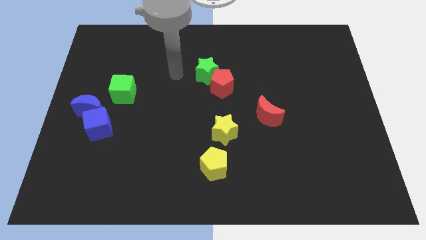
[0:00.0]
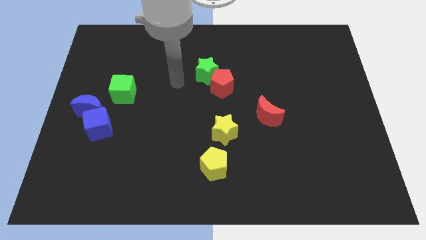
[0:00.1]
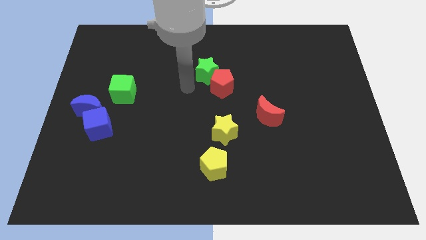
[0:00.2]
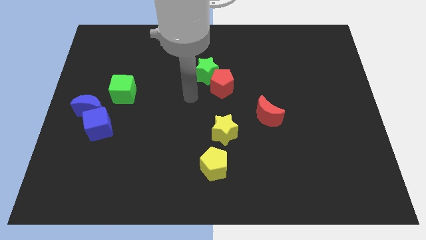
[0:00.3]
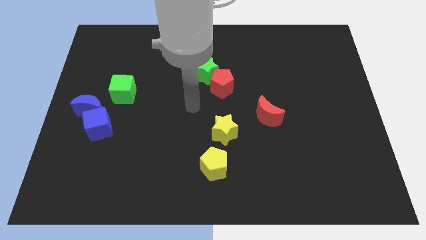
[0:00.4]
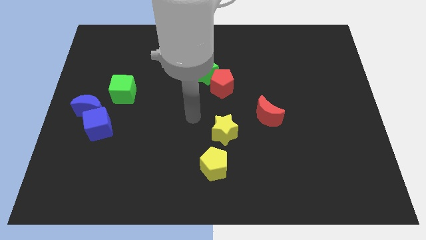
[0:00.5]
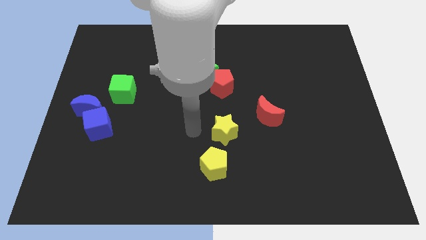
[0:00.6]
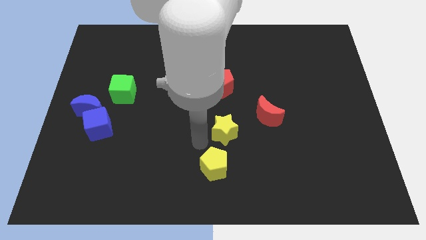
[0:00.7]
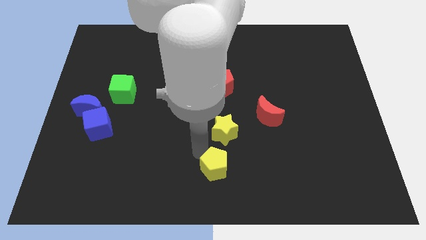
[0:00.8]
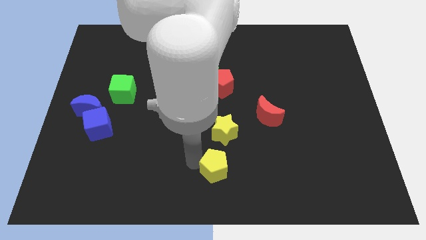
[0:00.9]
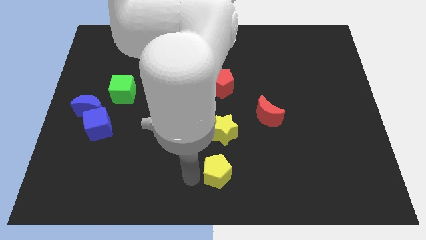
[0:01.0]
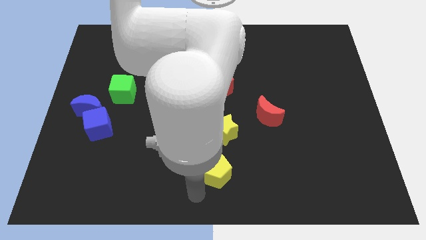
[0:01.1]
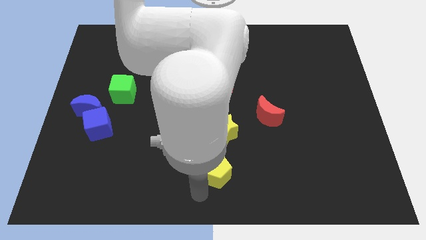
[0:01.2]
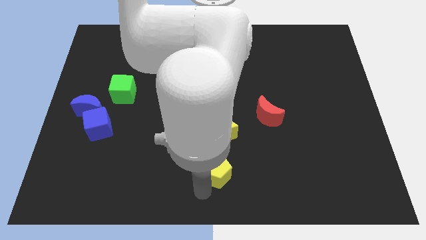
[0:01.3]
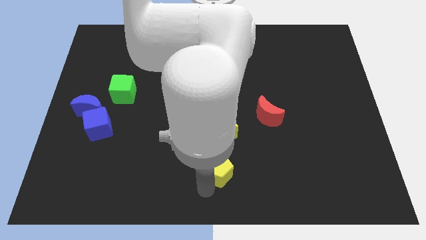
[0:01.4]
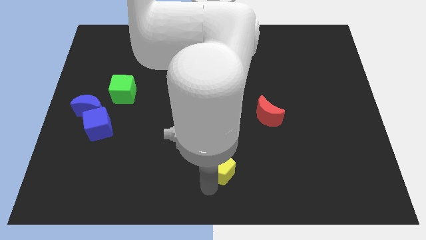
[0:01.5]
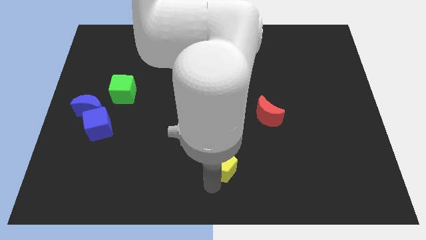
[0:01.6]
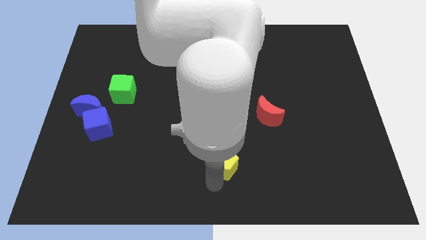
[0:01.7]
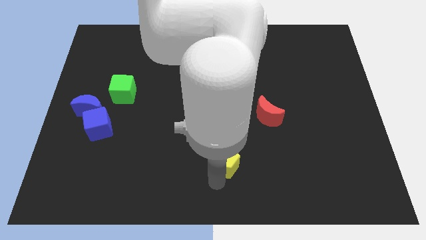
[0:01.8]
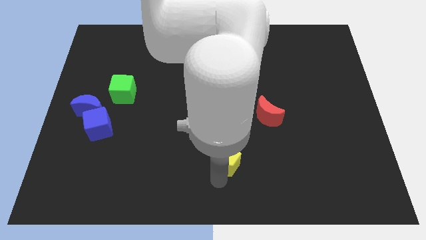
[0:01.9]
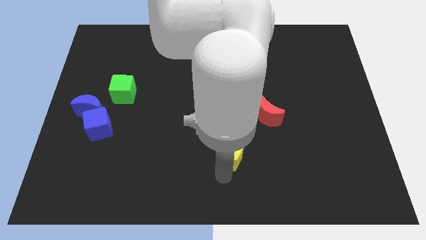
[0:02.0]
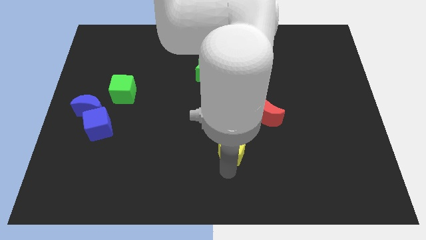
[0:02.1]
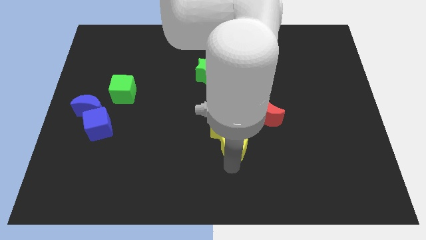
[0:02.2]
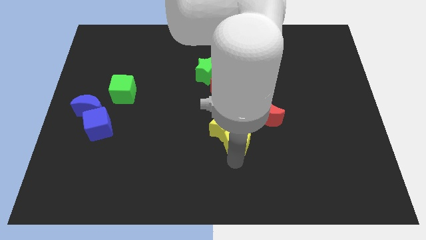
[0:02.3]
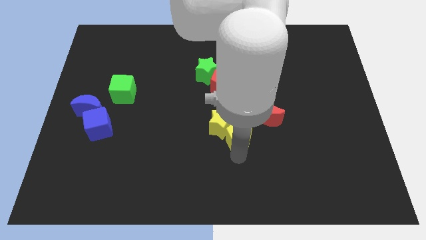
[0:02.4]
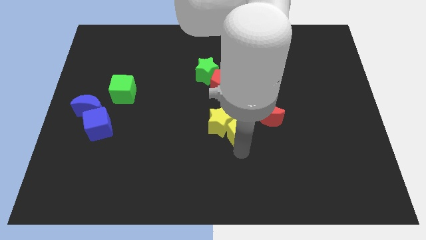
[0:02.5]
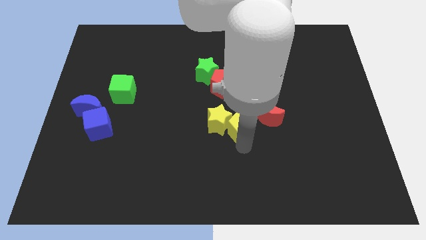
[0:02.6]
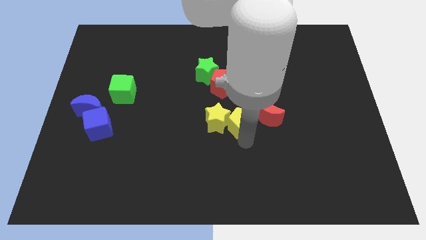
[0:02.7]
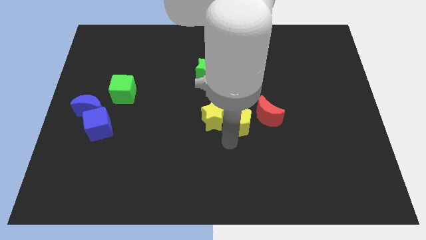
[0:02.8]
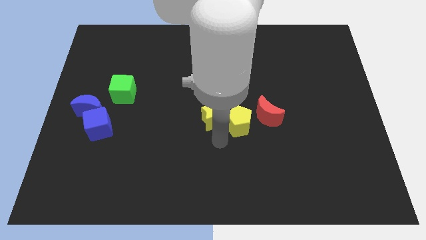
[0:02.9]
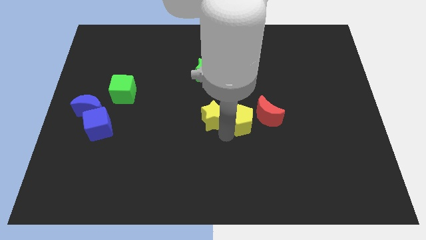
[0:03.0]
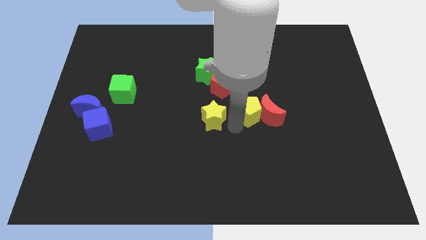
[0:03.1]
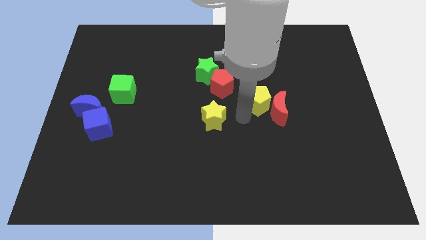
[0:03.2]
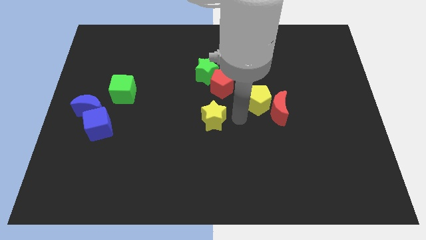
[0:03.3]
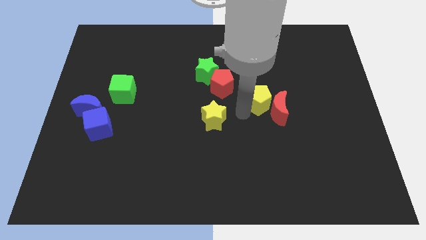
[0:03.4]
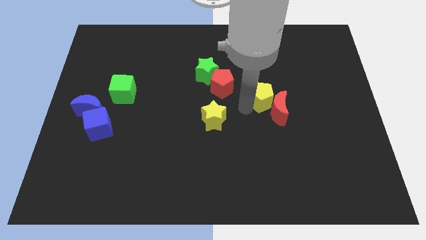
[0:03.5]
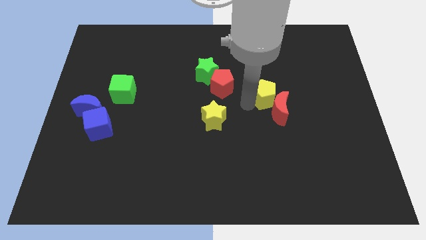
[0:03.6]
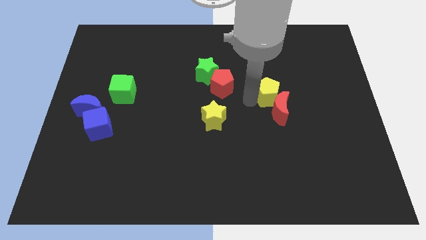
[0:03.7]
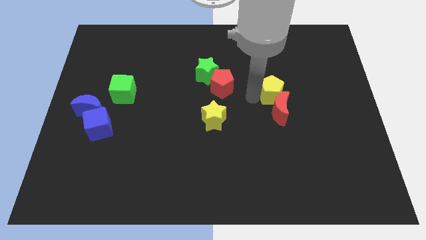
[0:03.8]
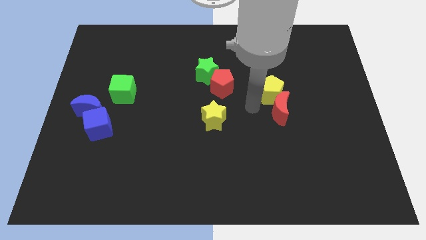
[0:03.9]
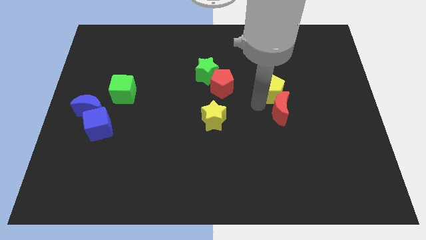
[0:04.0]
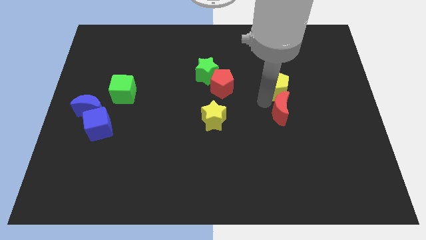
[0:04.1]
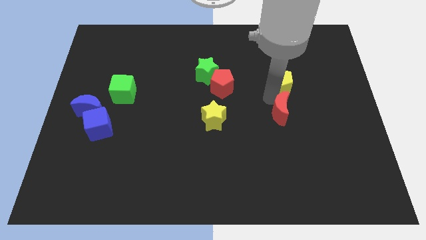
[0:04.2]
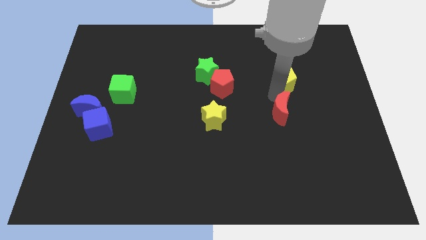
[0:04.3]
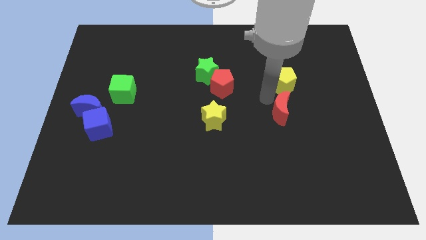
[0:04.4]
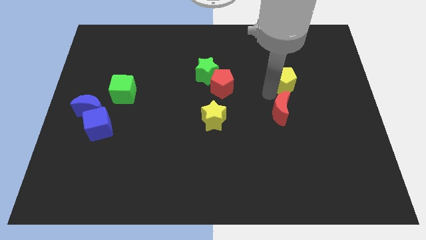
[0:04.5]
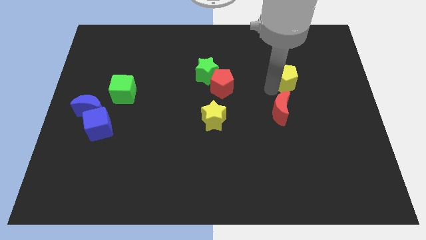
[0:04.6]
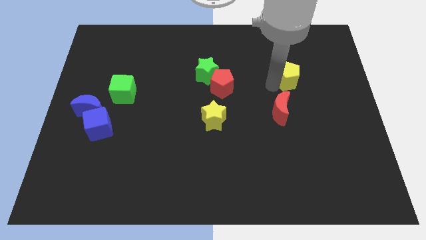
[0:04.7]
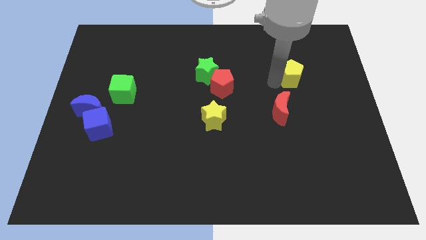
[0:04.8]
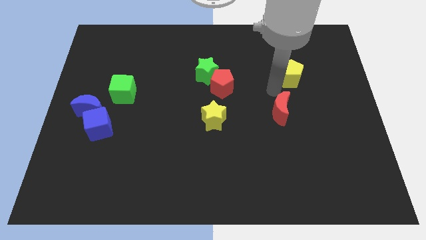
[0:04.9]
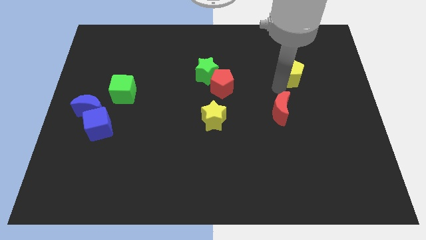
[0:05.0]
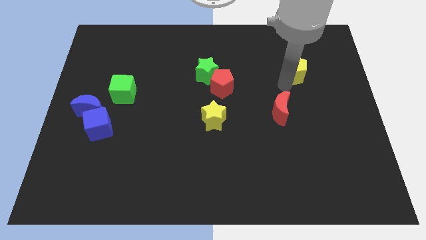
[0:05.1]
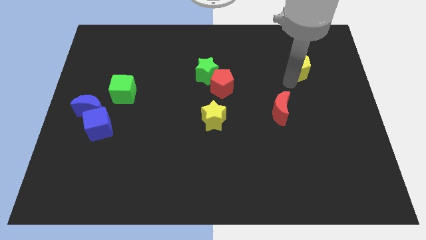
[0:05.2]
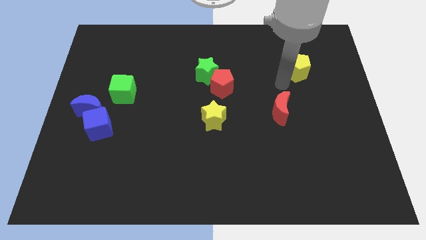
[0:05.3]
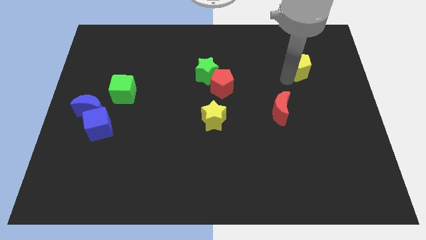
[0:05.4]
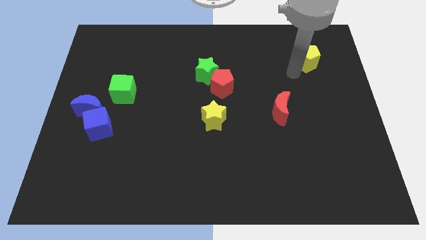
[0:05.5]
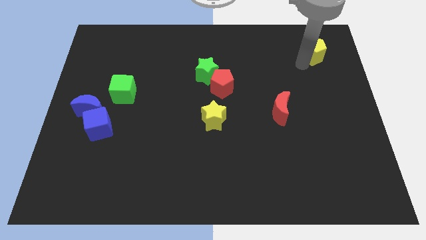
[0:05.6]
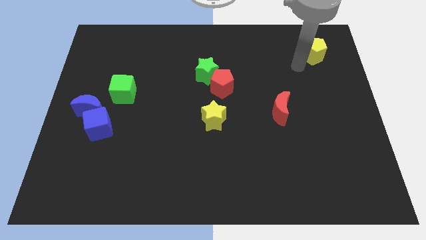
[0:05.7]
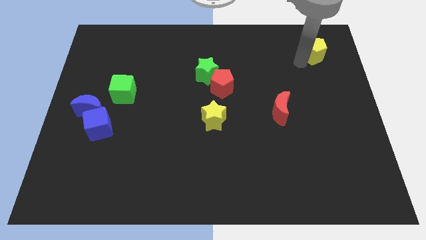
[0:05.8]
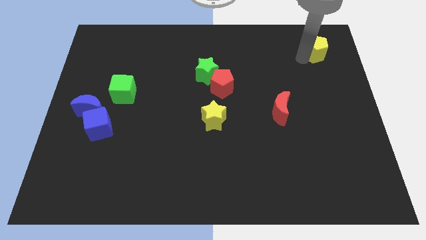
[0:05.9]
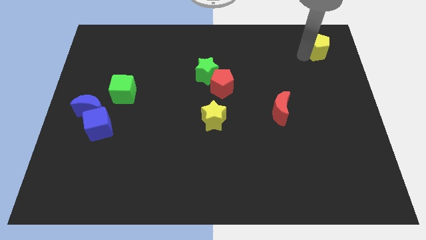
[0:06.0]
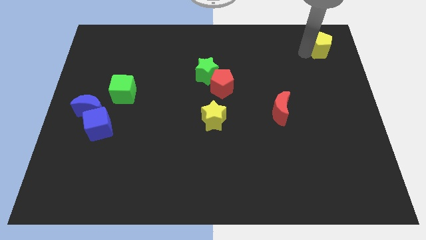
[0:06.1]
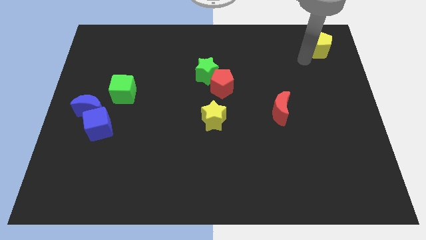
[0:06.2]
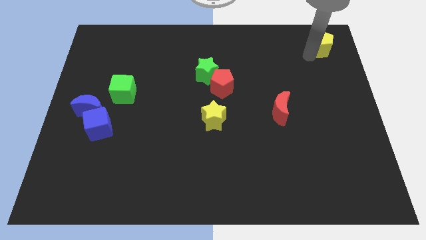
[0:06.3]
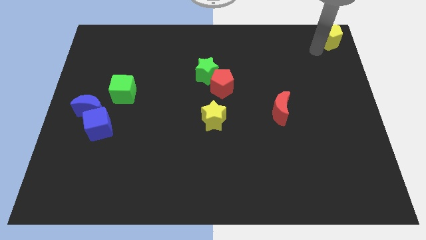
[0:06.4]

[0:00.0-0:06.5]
slide the yellow pentagon to the top right corner
